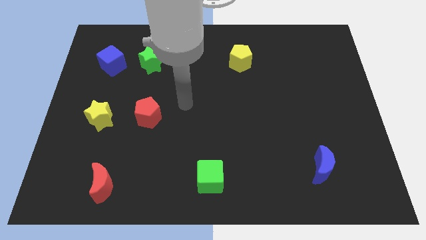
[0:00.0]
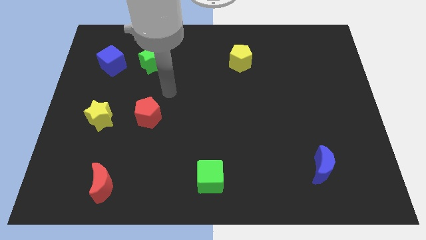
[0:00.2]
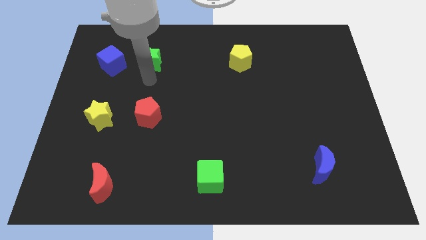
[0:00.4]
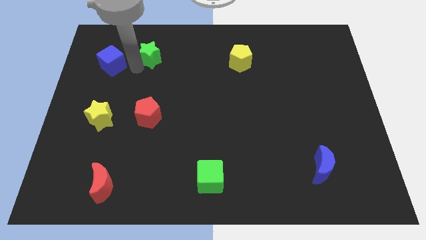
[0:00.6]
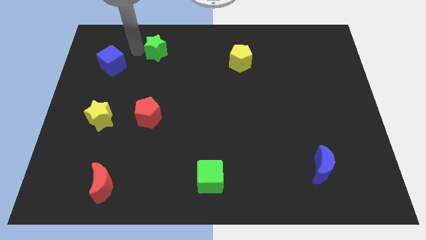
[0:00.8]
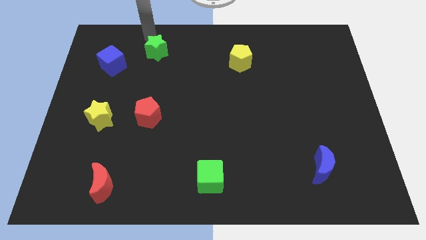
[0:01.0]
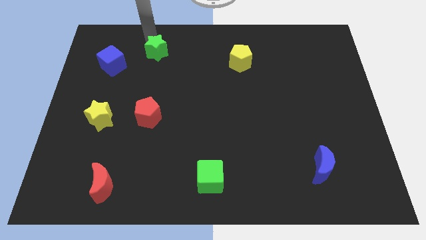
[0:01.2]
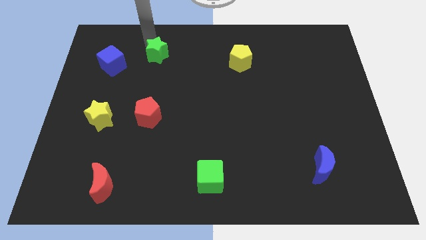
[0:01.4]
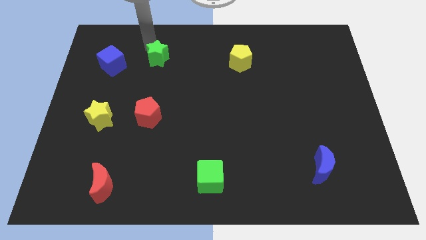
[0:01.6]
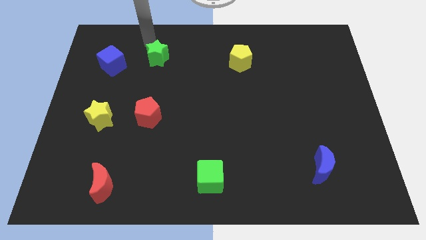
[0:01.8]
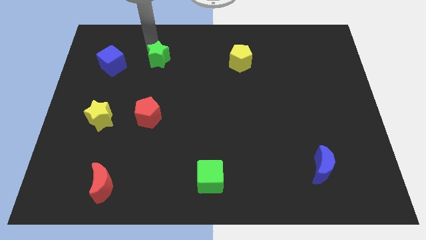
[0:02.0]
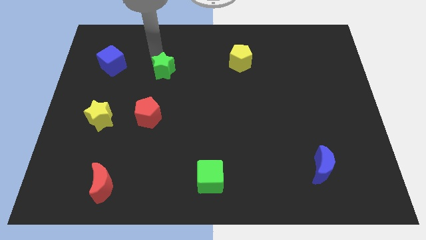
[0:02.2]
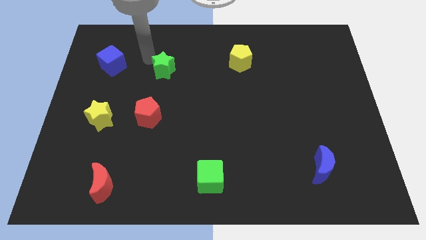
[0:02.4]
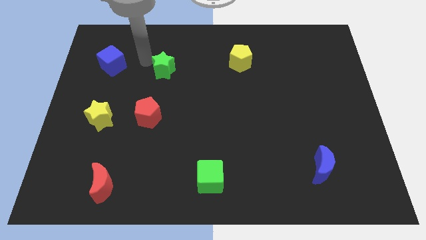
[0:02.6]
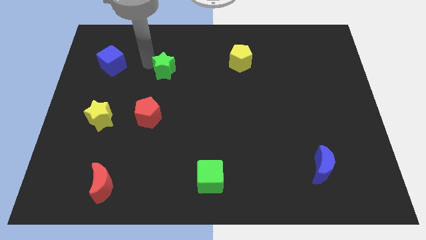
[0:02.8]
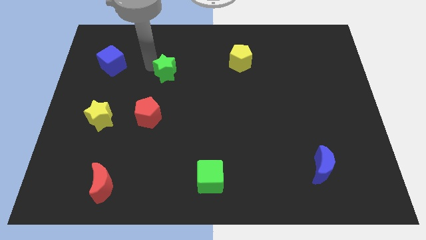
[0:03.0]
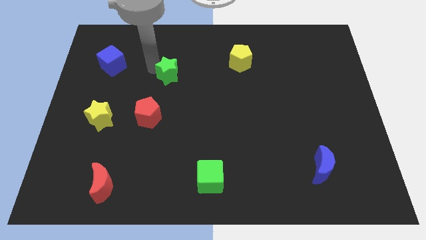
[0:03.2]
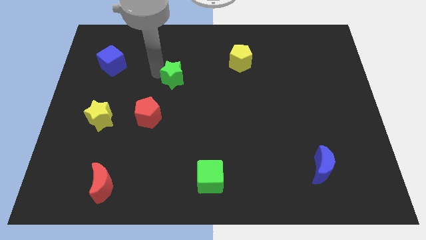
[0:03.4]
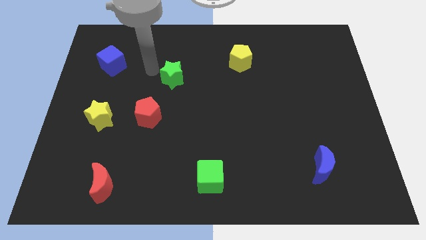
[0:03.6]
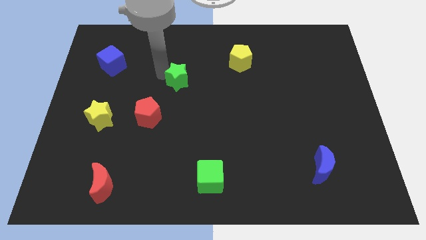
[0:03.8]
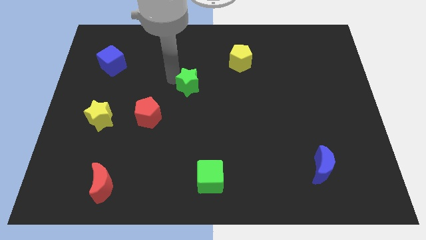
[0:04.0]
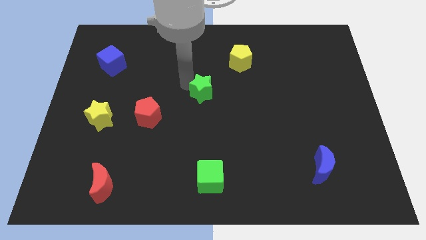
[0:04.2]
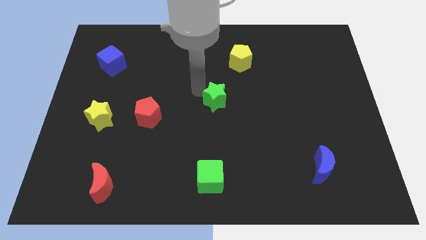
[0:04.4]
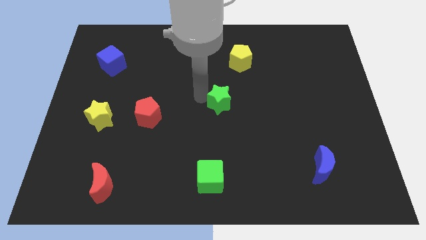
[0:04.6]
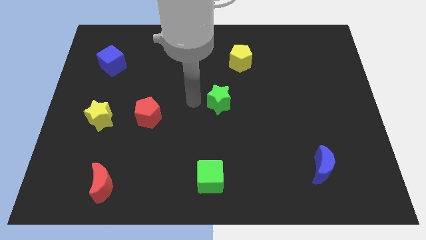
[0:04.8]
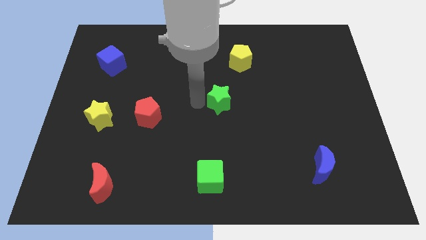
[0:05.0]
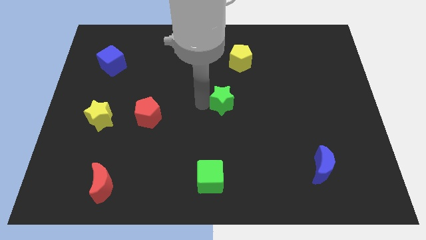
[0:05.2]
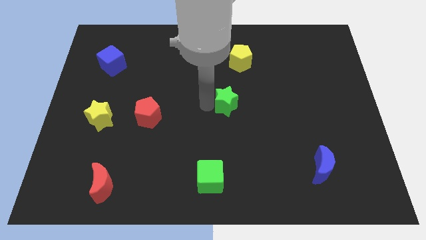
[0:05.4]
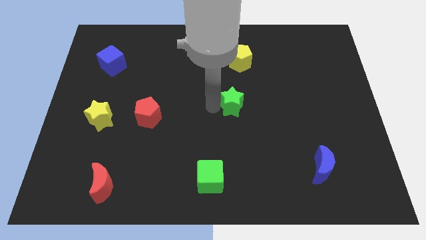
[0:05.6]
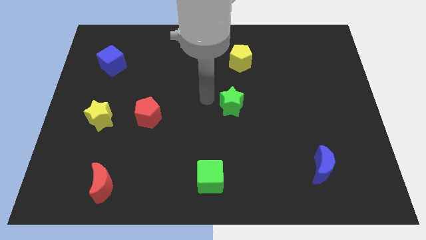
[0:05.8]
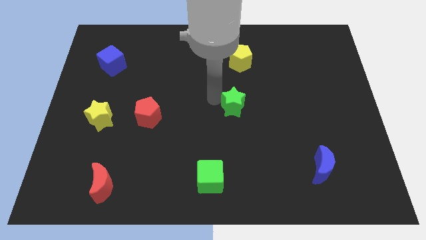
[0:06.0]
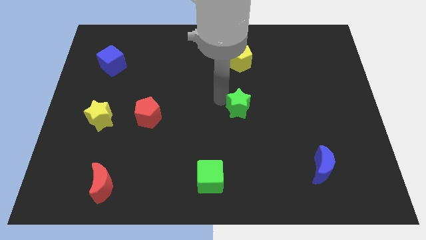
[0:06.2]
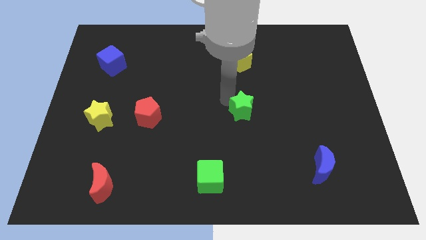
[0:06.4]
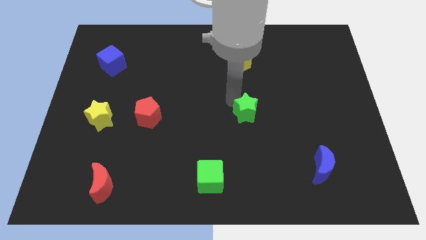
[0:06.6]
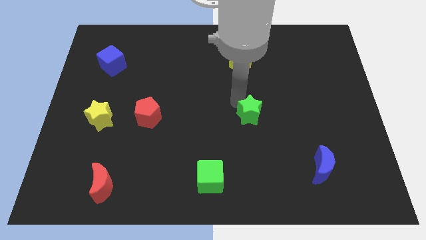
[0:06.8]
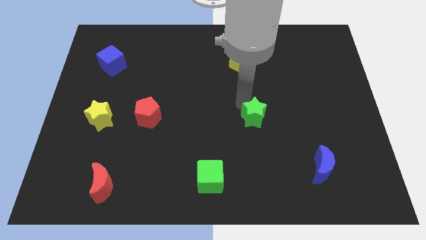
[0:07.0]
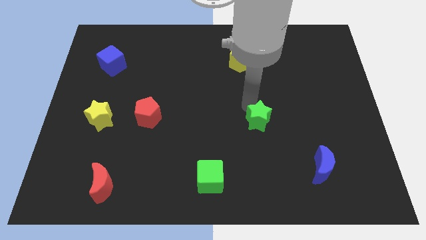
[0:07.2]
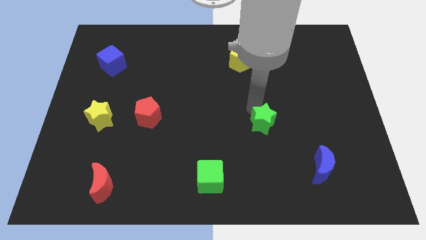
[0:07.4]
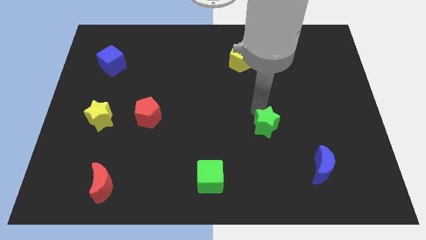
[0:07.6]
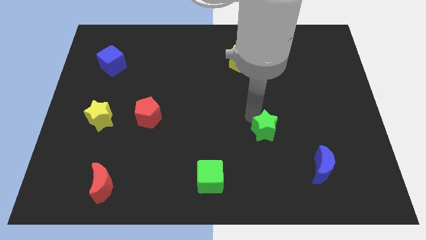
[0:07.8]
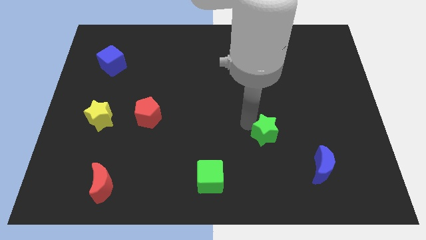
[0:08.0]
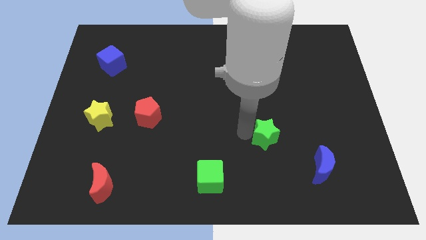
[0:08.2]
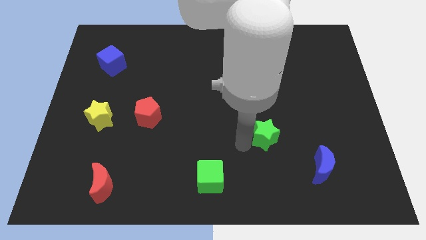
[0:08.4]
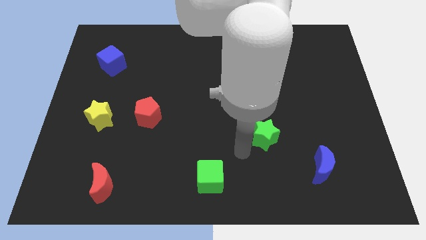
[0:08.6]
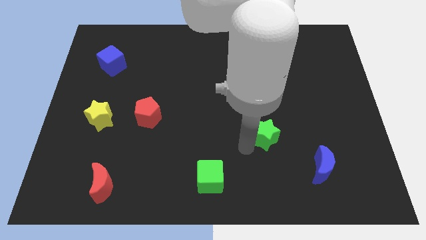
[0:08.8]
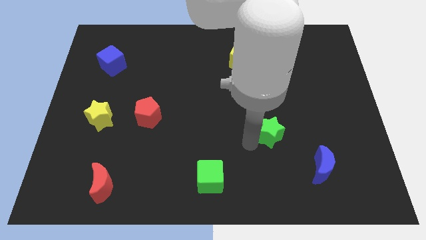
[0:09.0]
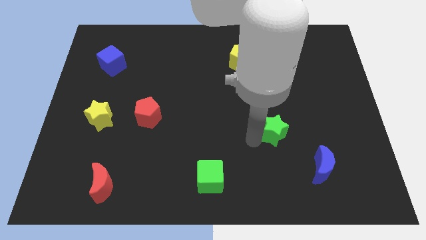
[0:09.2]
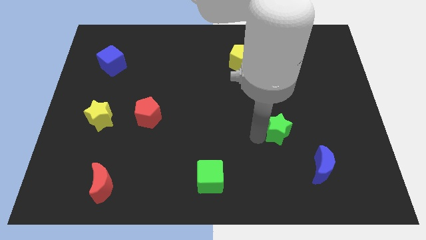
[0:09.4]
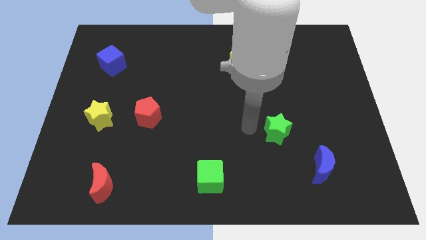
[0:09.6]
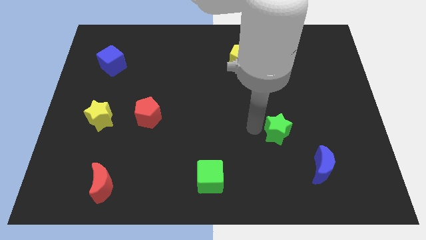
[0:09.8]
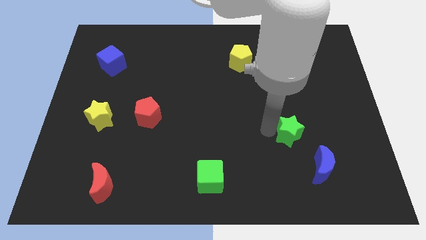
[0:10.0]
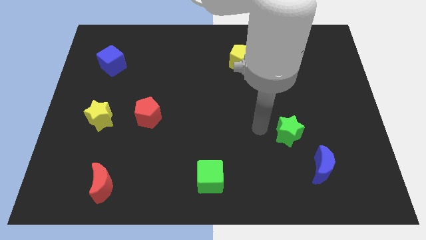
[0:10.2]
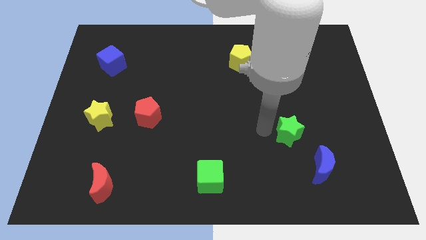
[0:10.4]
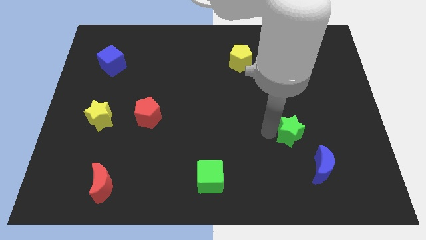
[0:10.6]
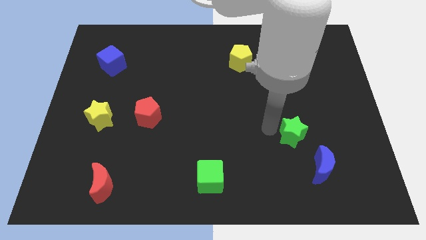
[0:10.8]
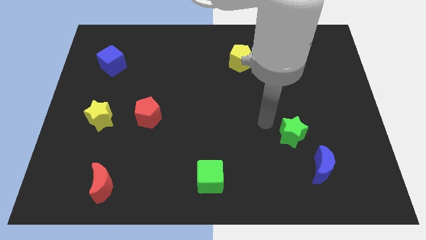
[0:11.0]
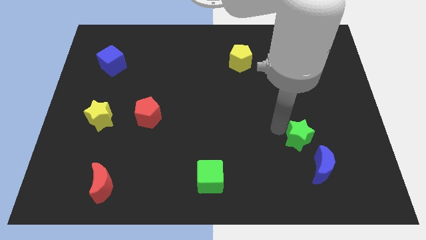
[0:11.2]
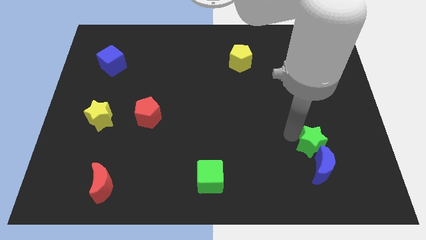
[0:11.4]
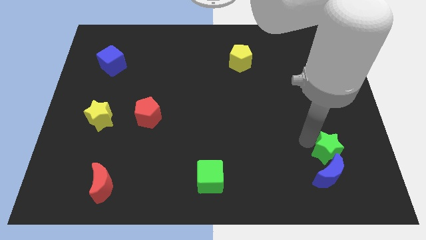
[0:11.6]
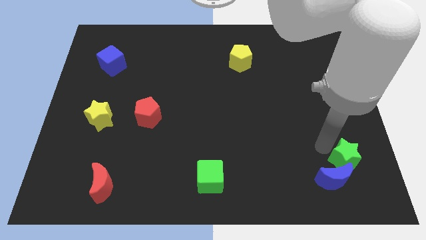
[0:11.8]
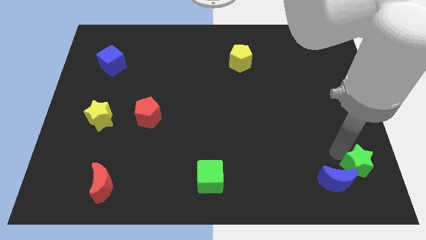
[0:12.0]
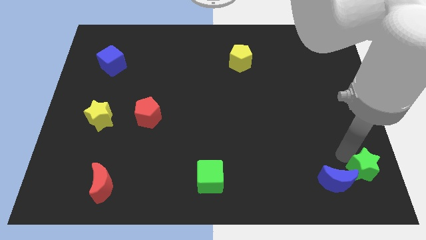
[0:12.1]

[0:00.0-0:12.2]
put the green star to the bottom right of the board

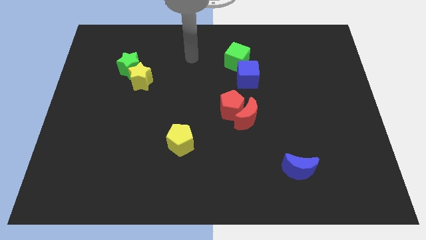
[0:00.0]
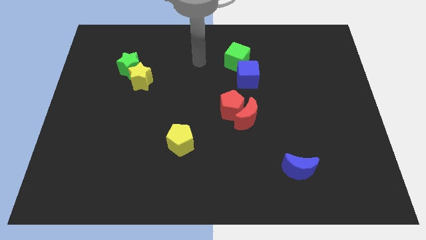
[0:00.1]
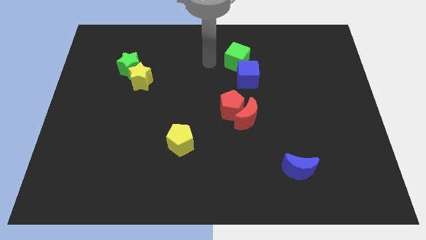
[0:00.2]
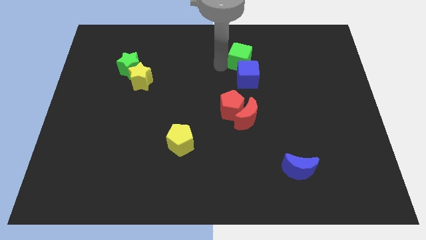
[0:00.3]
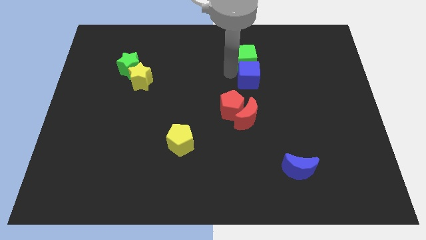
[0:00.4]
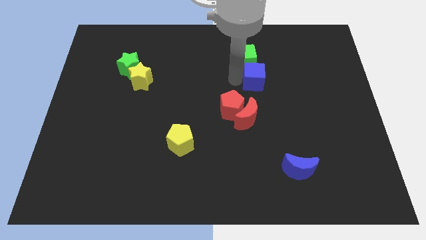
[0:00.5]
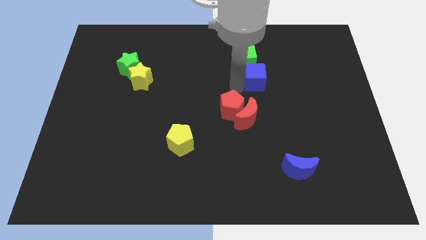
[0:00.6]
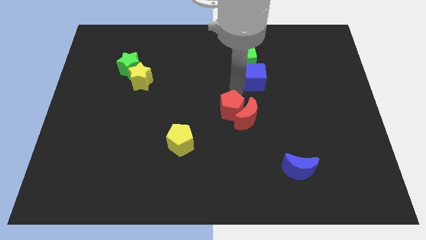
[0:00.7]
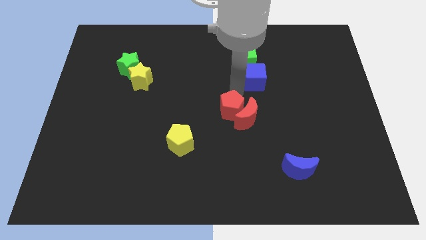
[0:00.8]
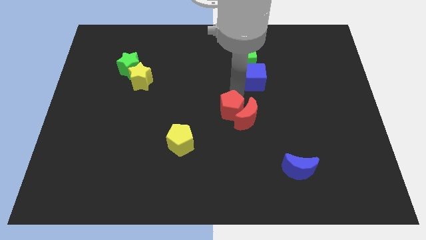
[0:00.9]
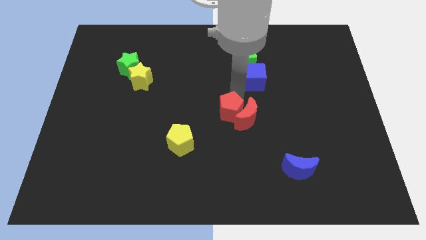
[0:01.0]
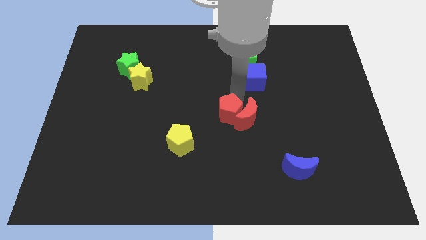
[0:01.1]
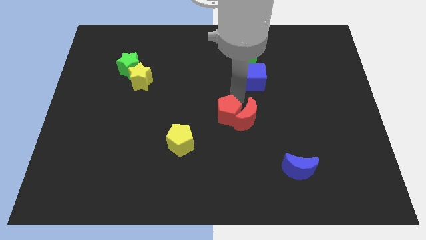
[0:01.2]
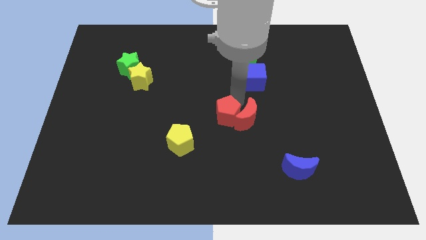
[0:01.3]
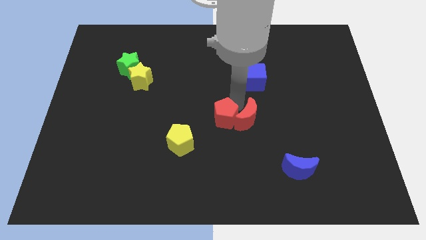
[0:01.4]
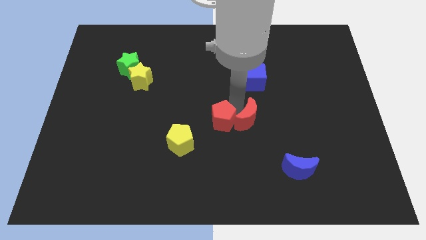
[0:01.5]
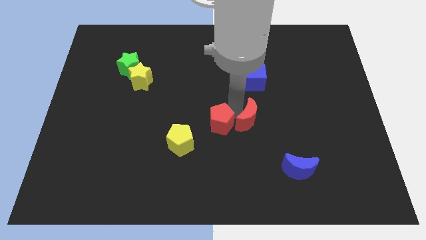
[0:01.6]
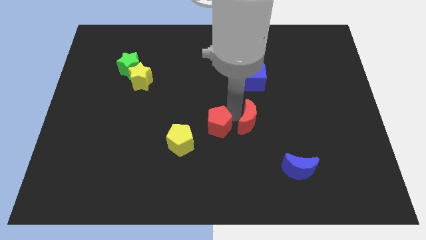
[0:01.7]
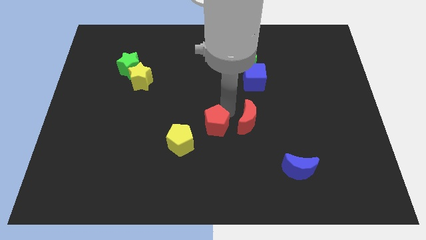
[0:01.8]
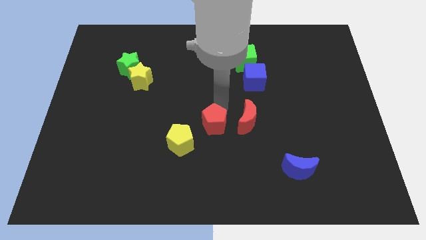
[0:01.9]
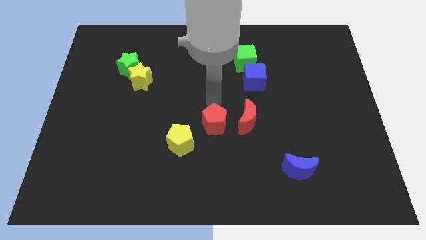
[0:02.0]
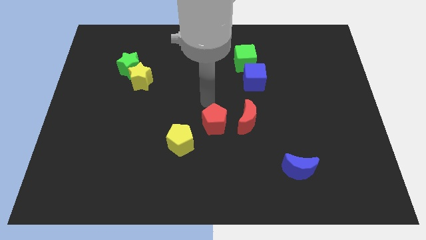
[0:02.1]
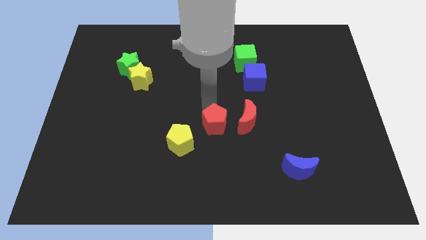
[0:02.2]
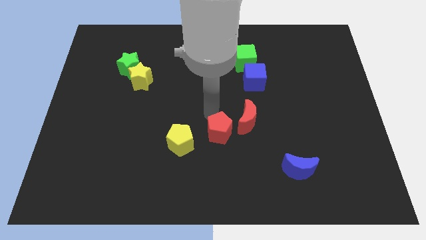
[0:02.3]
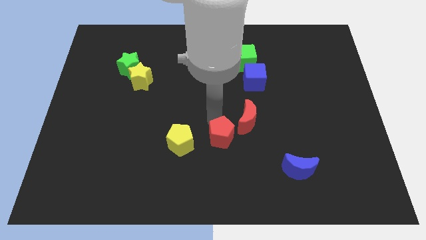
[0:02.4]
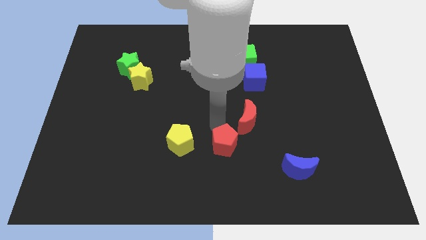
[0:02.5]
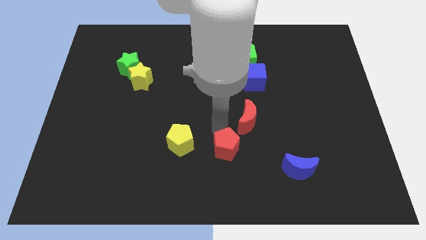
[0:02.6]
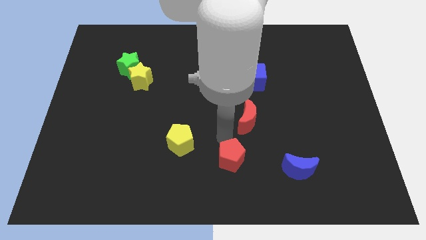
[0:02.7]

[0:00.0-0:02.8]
move the red pentagon to the bottom side

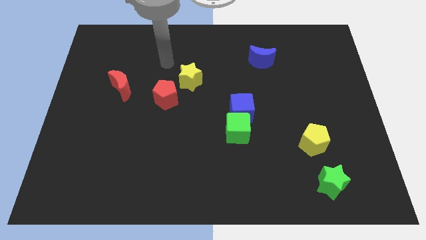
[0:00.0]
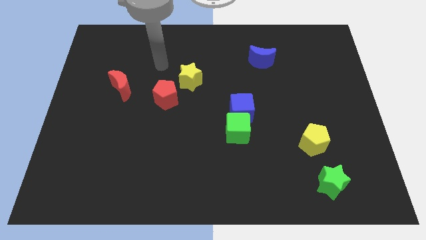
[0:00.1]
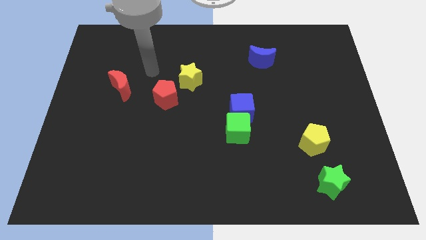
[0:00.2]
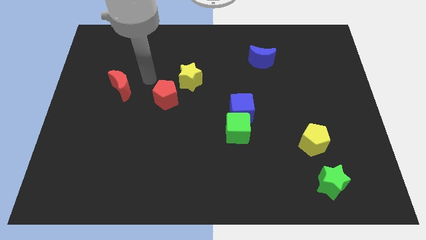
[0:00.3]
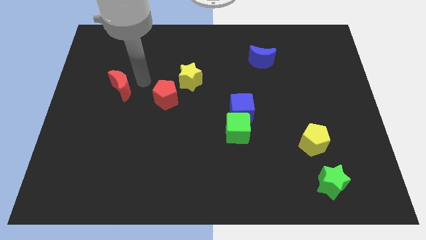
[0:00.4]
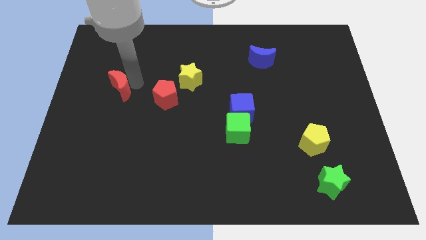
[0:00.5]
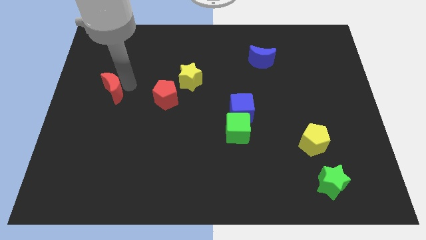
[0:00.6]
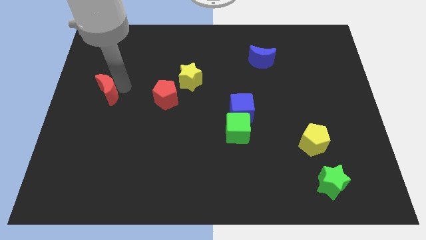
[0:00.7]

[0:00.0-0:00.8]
push the red moon to the left side of the board
